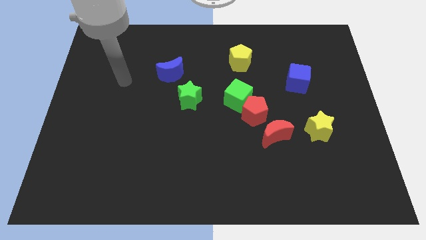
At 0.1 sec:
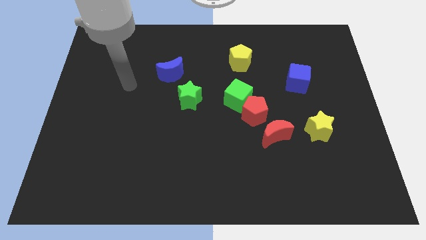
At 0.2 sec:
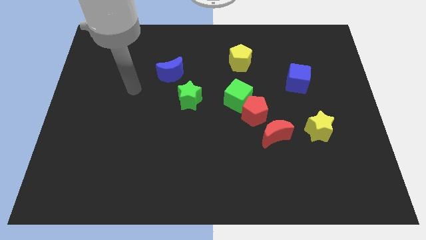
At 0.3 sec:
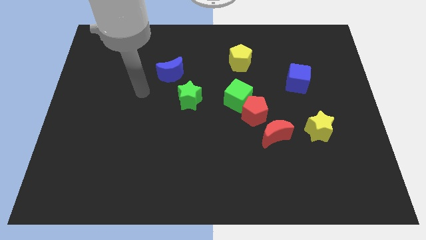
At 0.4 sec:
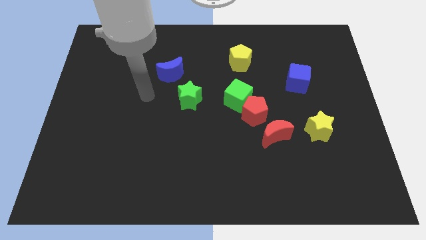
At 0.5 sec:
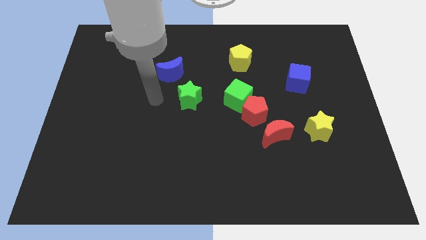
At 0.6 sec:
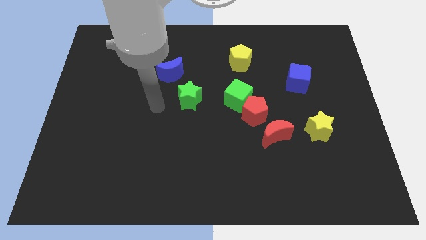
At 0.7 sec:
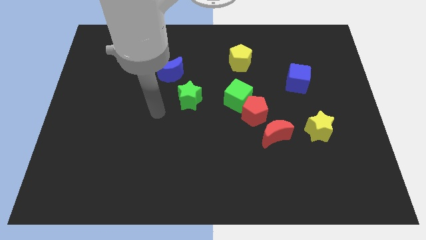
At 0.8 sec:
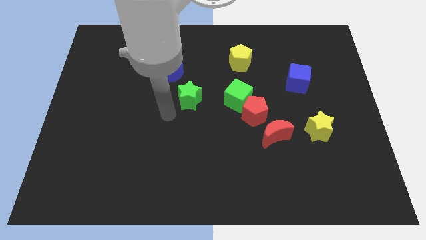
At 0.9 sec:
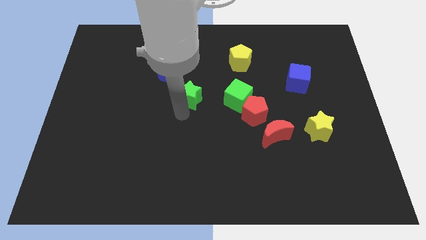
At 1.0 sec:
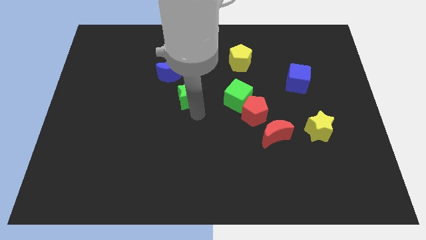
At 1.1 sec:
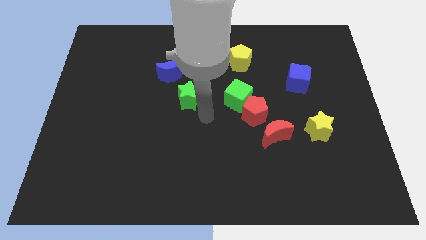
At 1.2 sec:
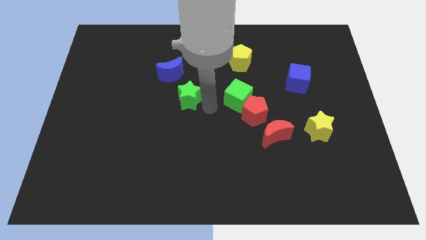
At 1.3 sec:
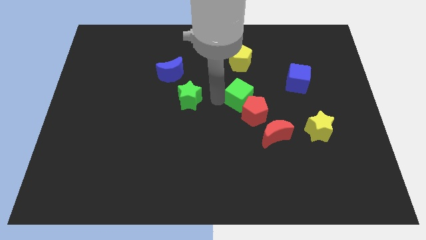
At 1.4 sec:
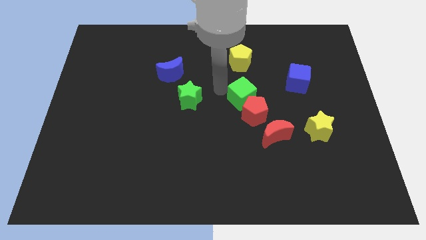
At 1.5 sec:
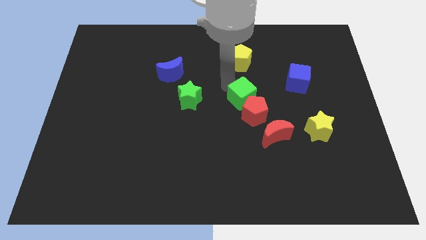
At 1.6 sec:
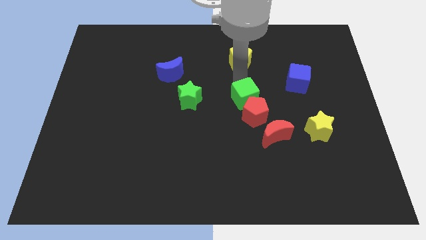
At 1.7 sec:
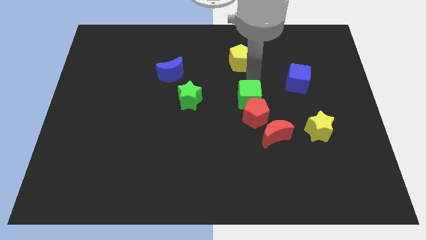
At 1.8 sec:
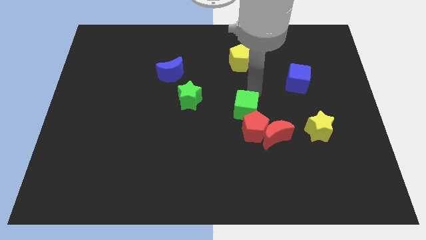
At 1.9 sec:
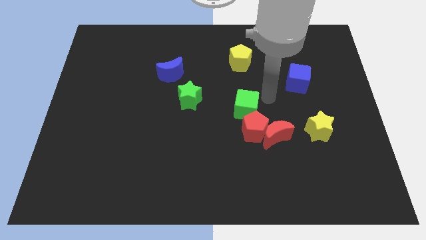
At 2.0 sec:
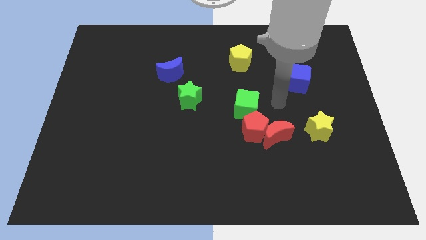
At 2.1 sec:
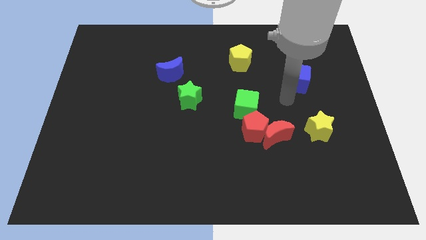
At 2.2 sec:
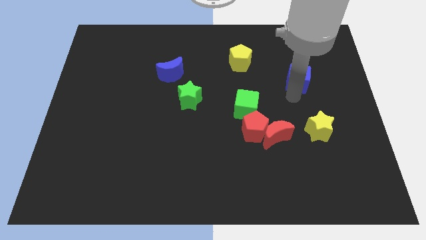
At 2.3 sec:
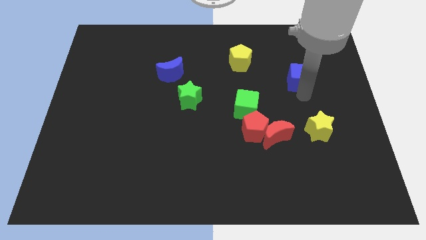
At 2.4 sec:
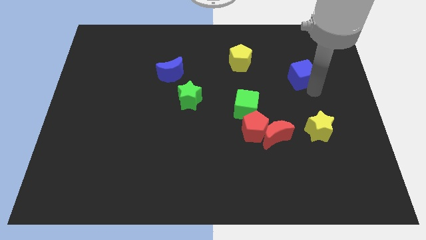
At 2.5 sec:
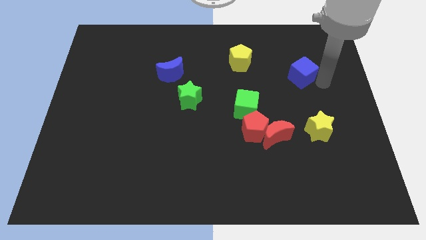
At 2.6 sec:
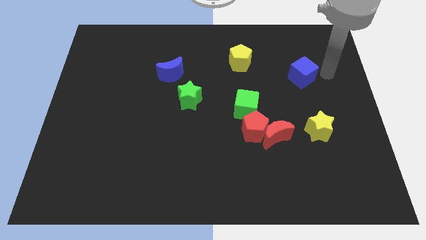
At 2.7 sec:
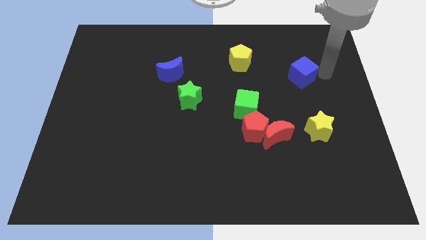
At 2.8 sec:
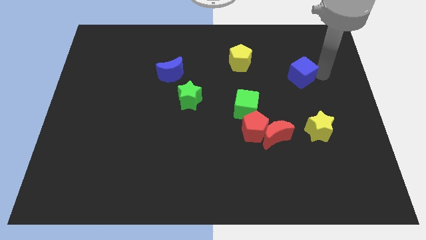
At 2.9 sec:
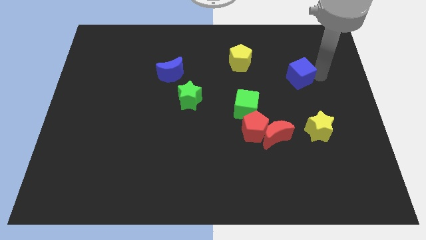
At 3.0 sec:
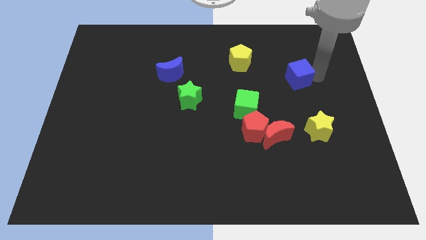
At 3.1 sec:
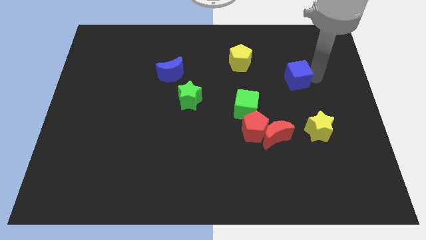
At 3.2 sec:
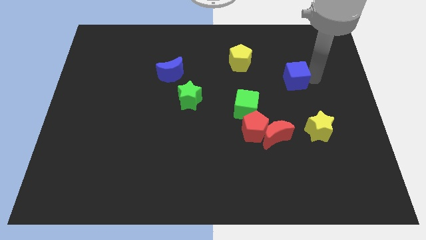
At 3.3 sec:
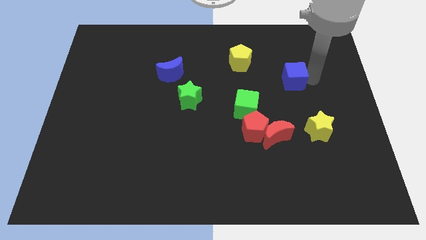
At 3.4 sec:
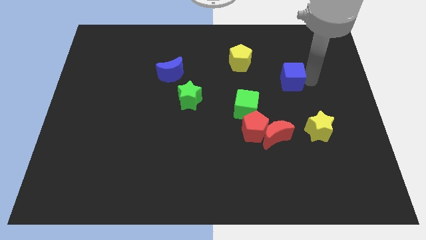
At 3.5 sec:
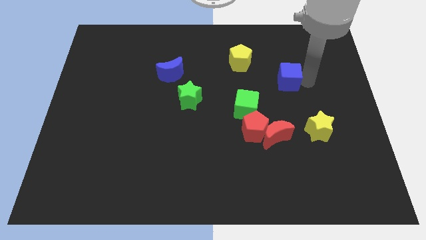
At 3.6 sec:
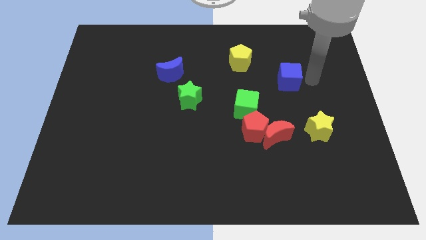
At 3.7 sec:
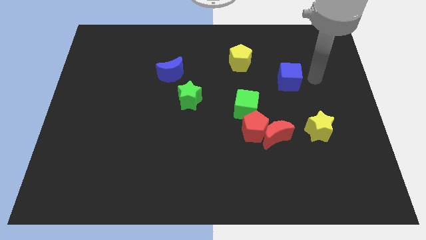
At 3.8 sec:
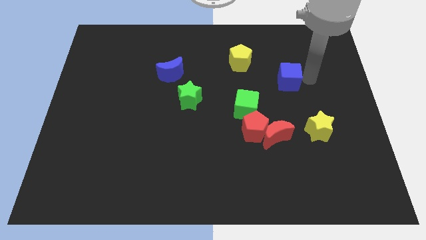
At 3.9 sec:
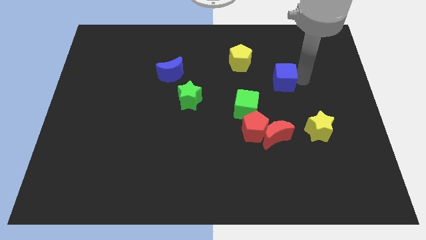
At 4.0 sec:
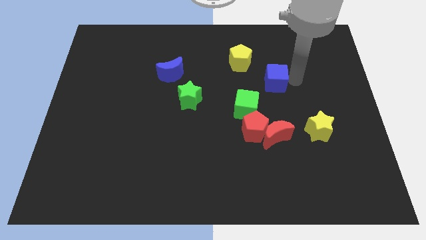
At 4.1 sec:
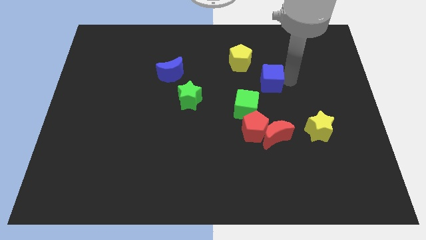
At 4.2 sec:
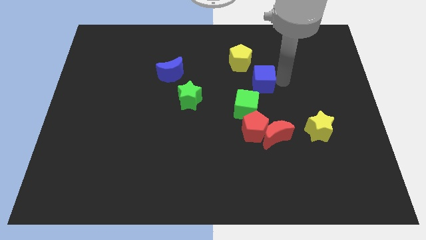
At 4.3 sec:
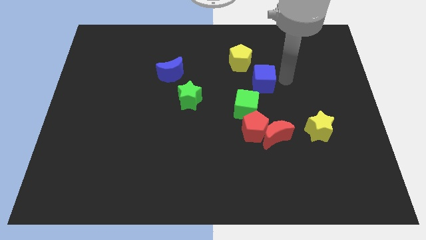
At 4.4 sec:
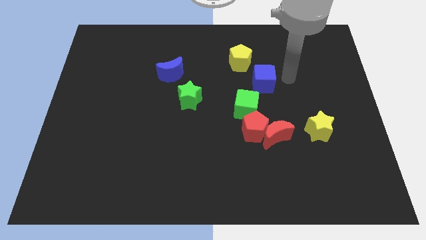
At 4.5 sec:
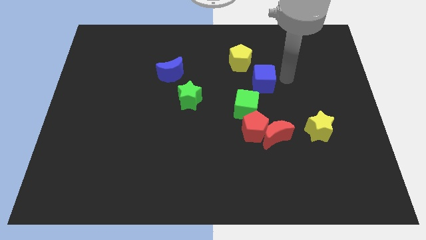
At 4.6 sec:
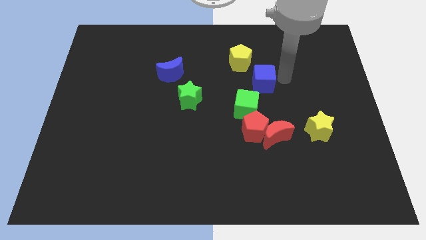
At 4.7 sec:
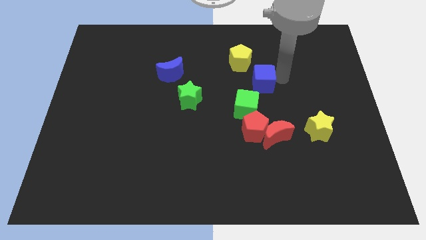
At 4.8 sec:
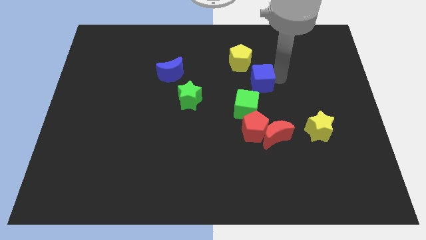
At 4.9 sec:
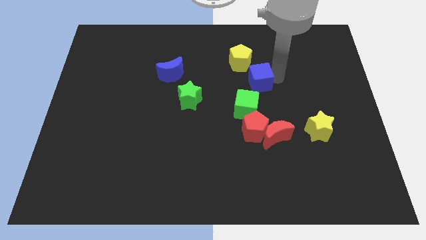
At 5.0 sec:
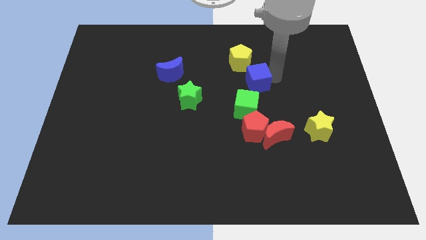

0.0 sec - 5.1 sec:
slide the blue cube to the center of the board

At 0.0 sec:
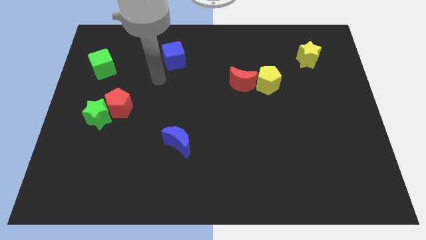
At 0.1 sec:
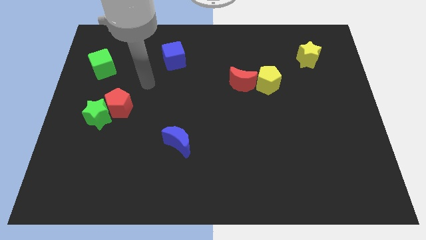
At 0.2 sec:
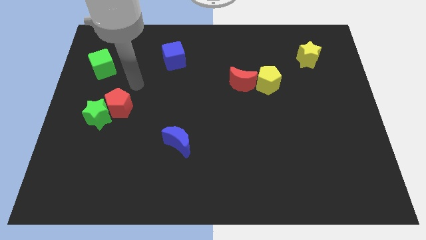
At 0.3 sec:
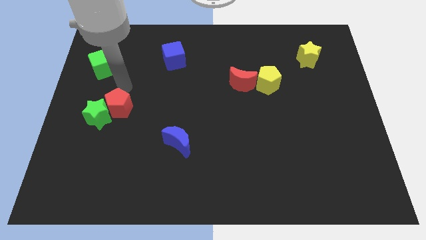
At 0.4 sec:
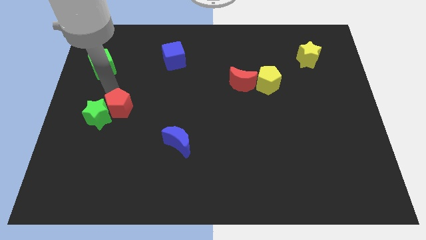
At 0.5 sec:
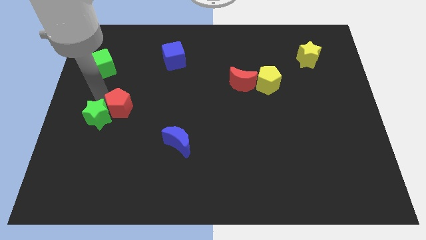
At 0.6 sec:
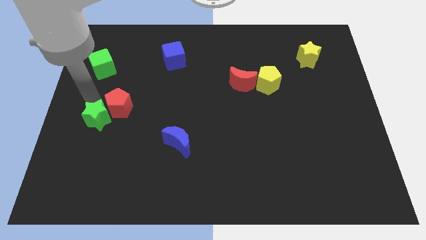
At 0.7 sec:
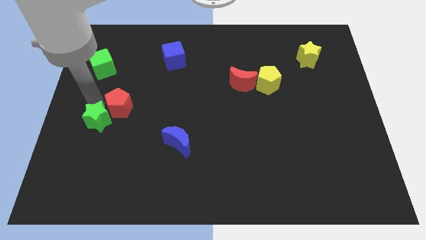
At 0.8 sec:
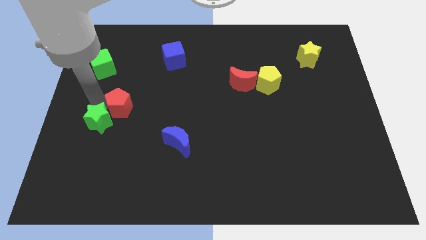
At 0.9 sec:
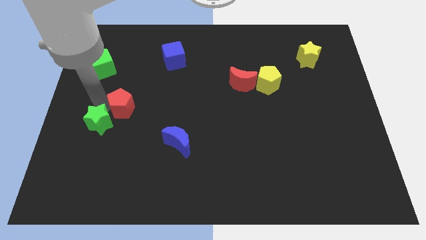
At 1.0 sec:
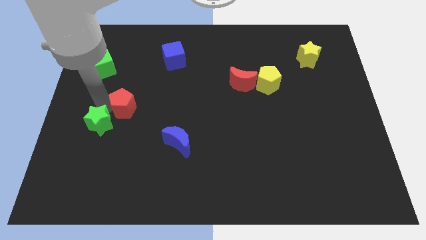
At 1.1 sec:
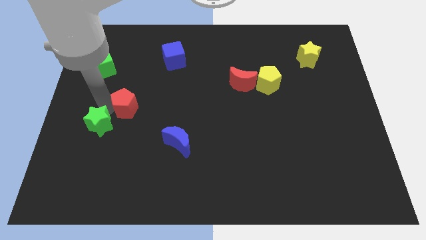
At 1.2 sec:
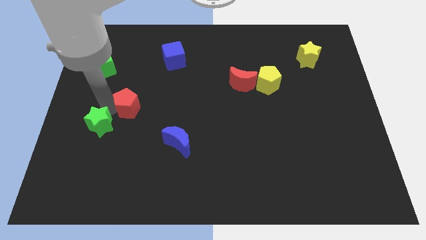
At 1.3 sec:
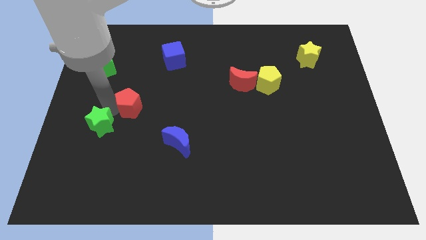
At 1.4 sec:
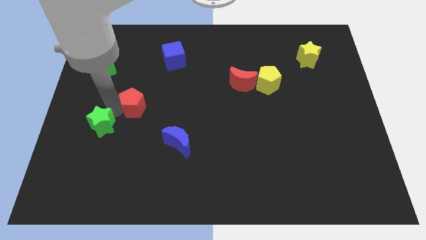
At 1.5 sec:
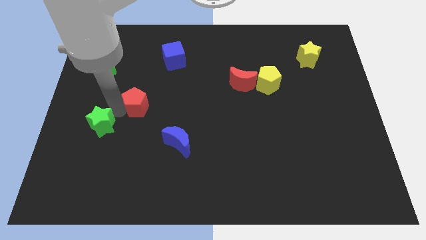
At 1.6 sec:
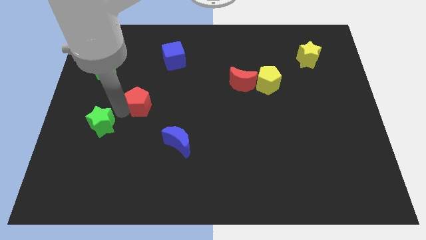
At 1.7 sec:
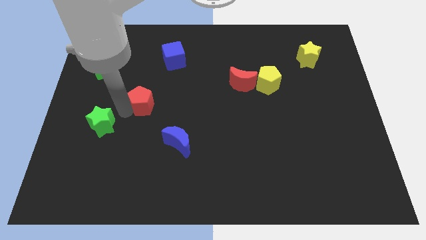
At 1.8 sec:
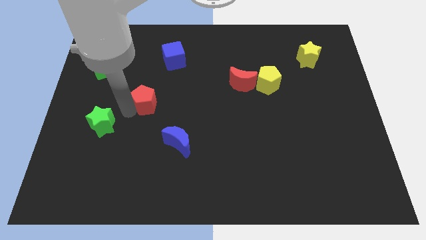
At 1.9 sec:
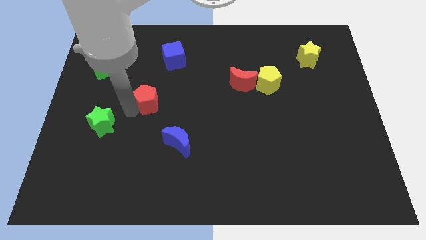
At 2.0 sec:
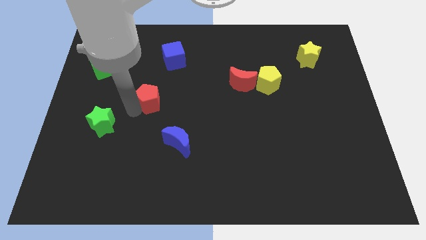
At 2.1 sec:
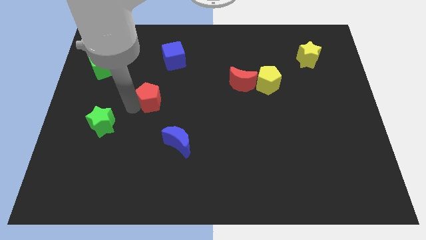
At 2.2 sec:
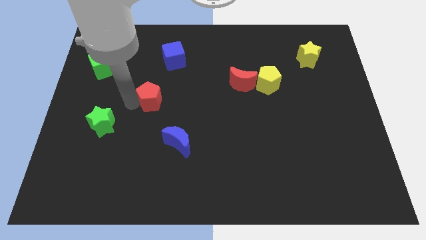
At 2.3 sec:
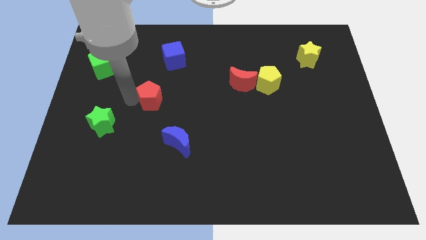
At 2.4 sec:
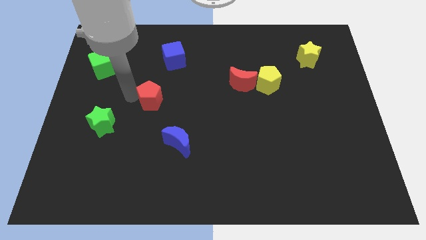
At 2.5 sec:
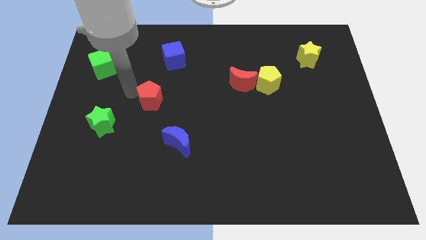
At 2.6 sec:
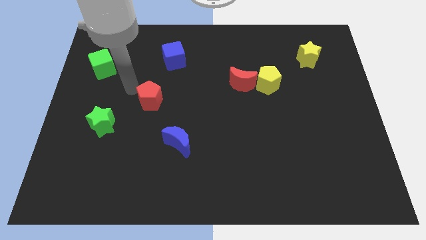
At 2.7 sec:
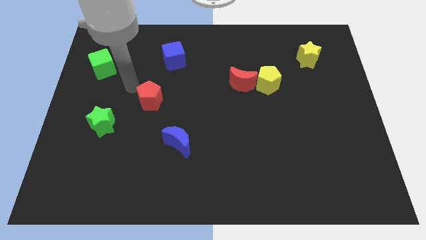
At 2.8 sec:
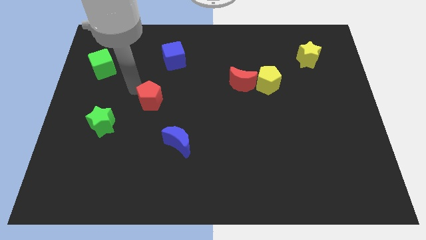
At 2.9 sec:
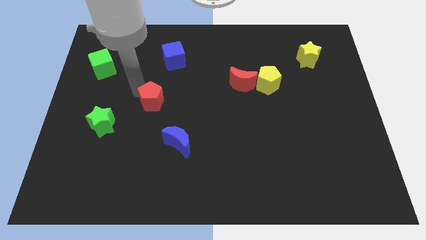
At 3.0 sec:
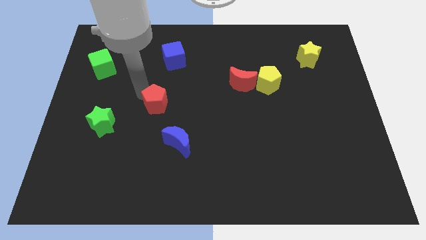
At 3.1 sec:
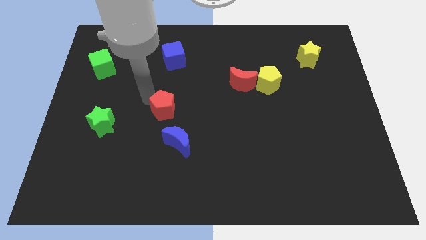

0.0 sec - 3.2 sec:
slide the red pentagon to the middle

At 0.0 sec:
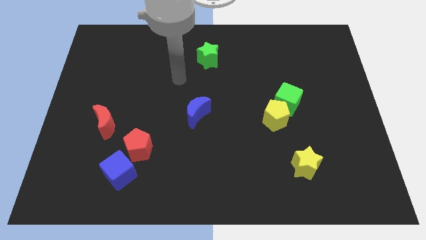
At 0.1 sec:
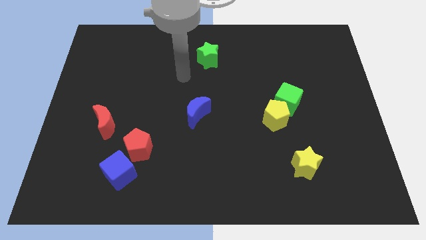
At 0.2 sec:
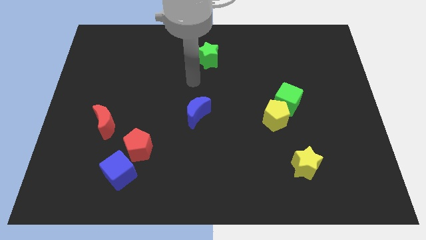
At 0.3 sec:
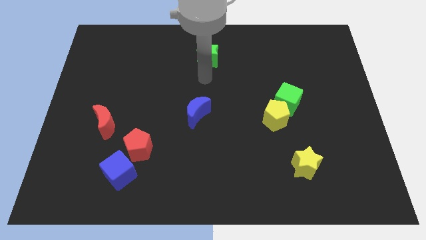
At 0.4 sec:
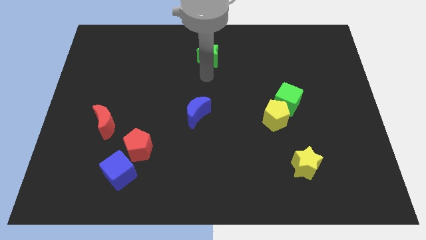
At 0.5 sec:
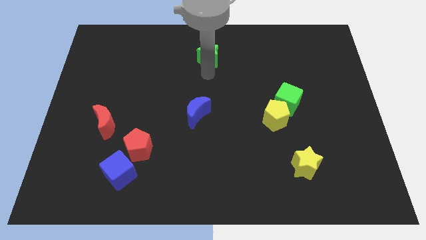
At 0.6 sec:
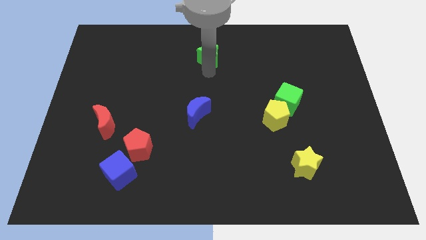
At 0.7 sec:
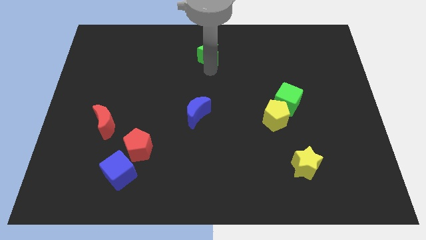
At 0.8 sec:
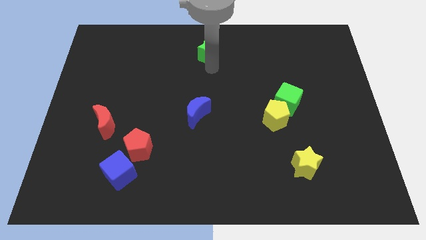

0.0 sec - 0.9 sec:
move the green star to the top
